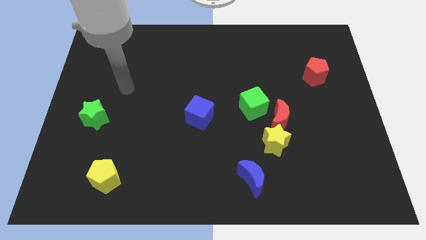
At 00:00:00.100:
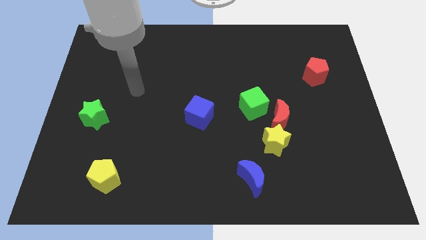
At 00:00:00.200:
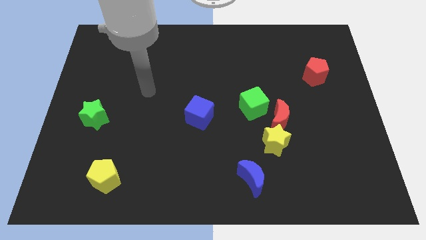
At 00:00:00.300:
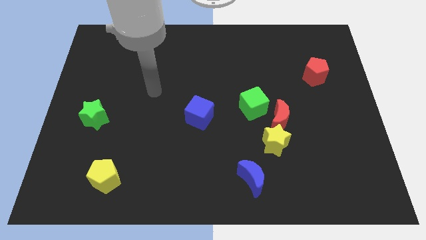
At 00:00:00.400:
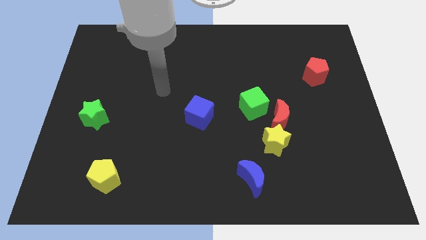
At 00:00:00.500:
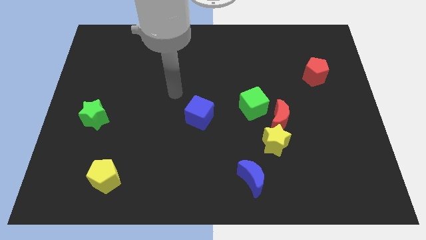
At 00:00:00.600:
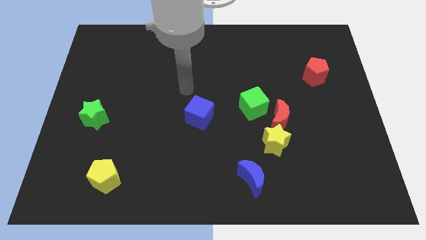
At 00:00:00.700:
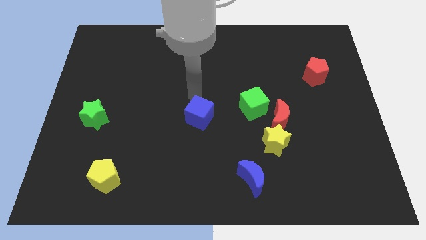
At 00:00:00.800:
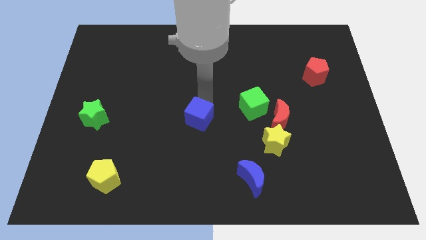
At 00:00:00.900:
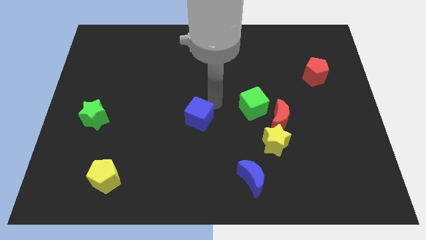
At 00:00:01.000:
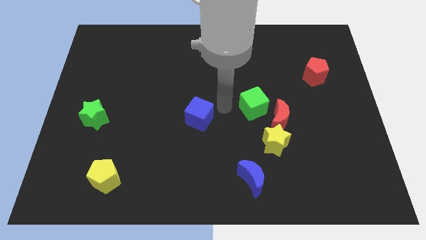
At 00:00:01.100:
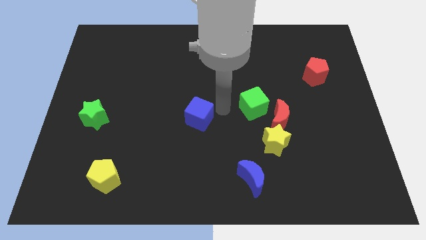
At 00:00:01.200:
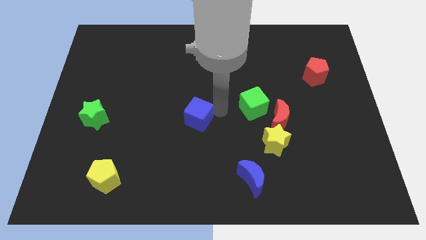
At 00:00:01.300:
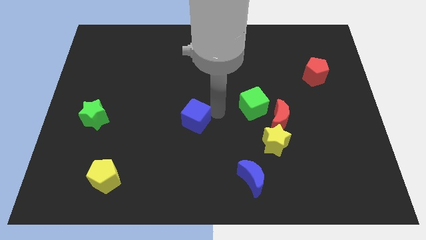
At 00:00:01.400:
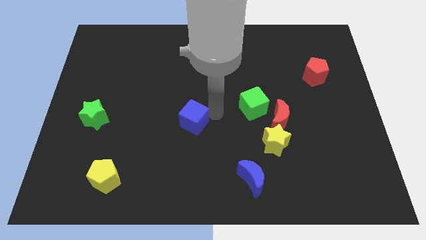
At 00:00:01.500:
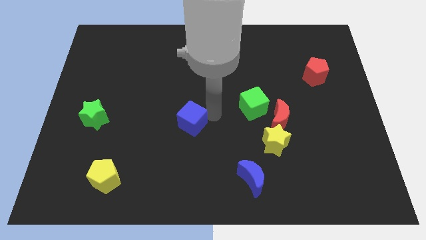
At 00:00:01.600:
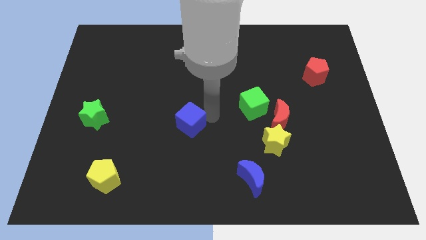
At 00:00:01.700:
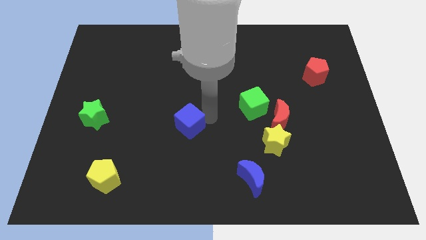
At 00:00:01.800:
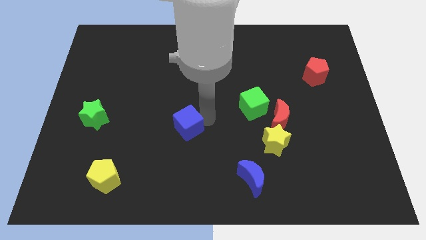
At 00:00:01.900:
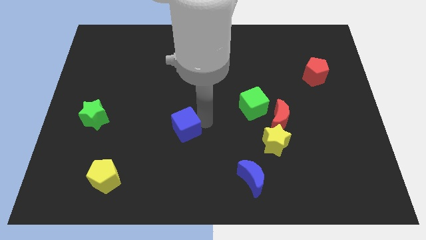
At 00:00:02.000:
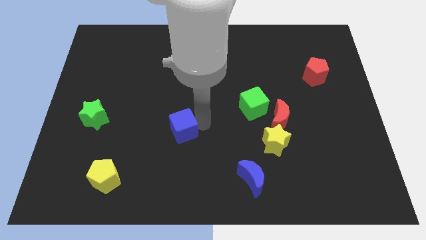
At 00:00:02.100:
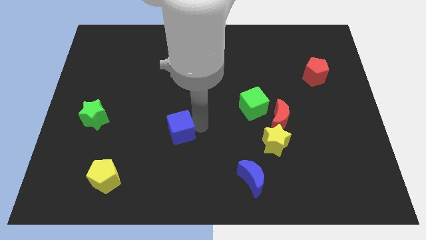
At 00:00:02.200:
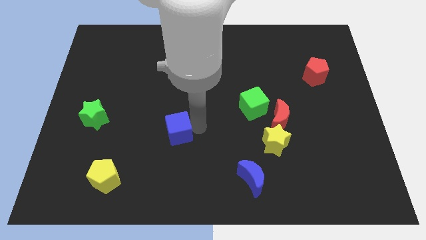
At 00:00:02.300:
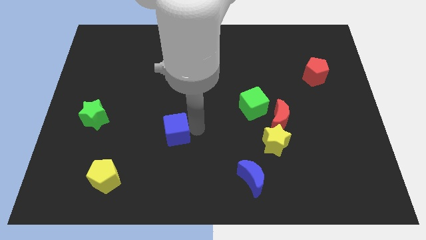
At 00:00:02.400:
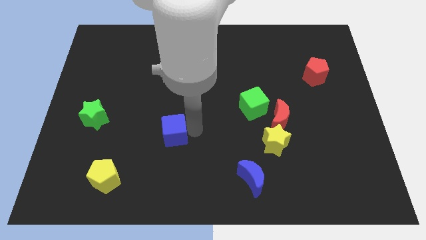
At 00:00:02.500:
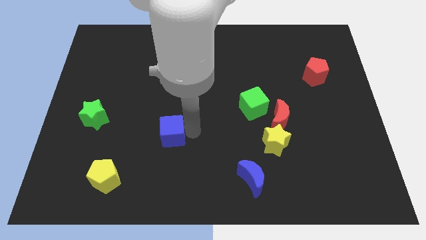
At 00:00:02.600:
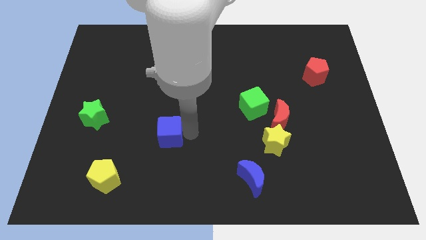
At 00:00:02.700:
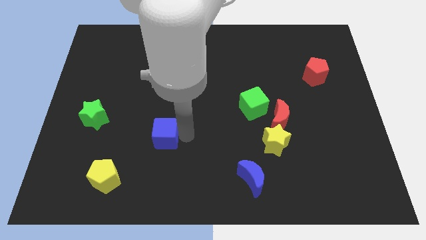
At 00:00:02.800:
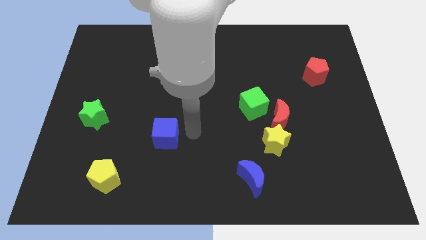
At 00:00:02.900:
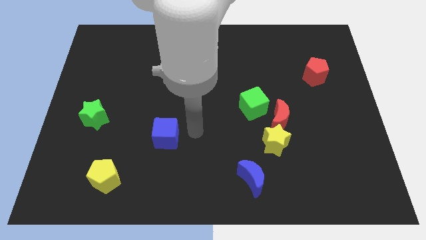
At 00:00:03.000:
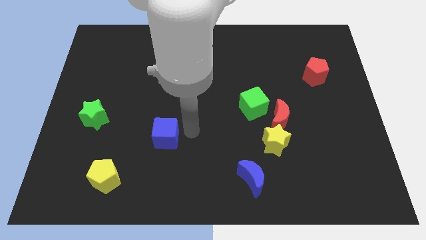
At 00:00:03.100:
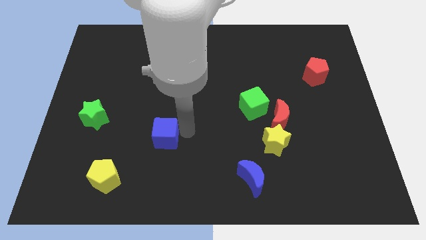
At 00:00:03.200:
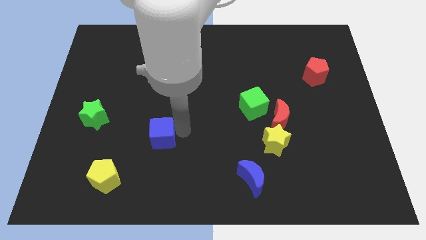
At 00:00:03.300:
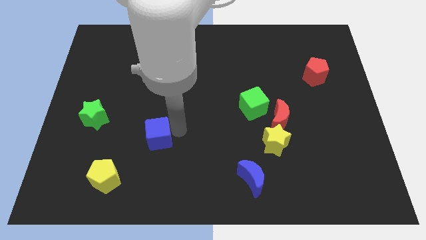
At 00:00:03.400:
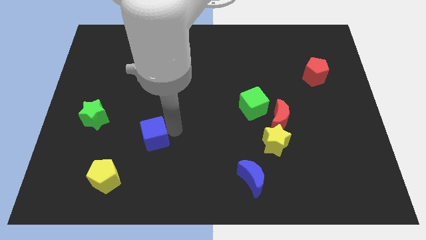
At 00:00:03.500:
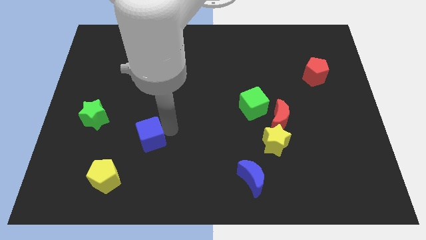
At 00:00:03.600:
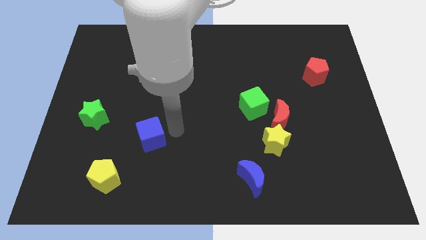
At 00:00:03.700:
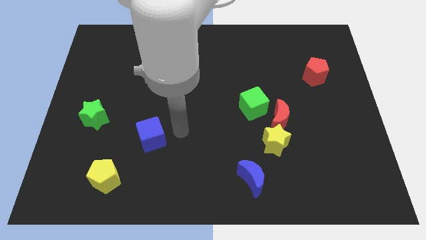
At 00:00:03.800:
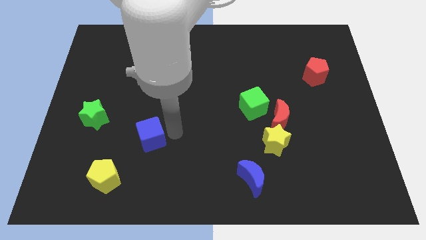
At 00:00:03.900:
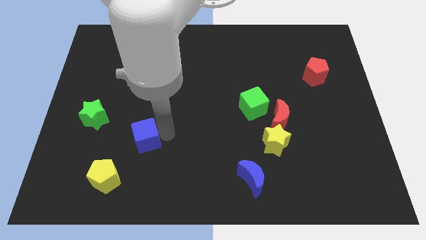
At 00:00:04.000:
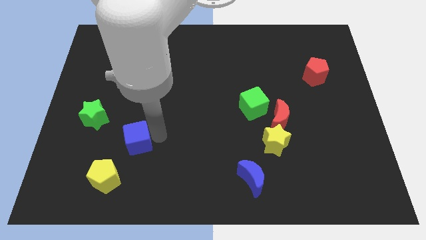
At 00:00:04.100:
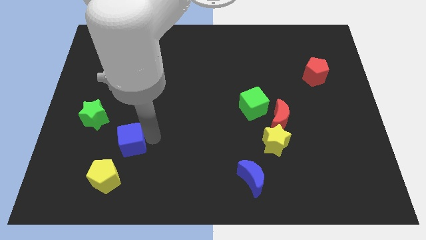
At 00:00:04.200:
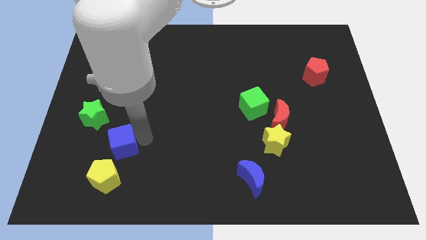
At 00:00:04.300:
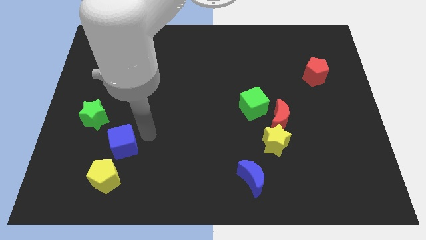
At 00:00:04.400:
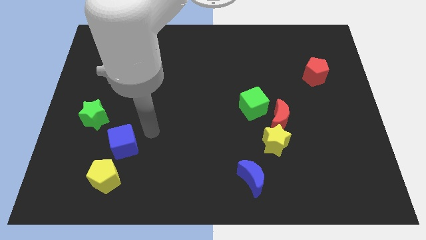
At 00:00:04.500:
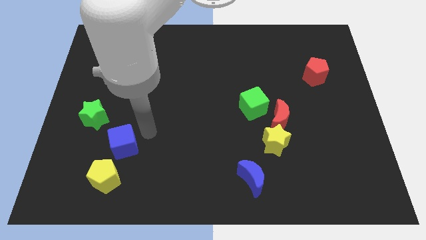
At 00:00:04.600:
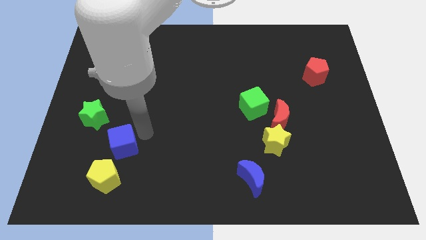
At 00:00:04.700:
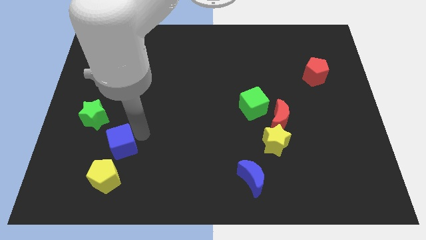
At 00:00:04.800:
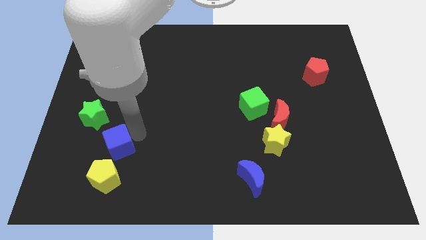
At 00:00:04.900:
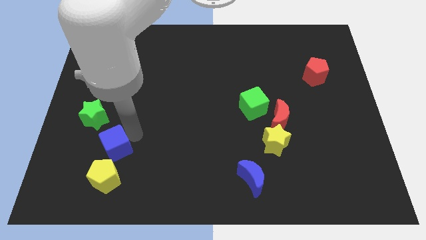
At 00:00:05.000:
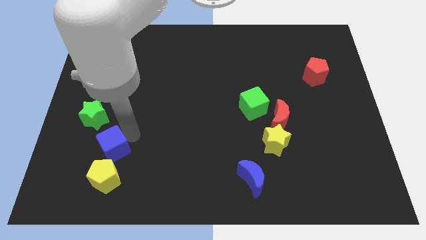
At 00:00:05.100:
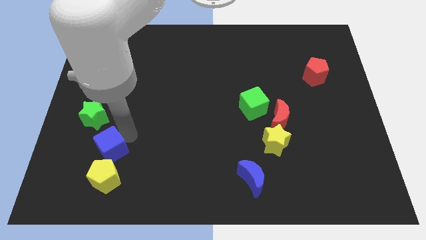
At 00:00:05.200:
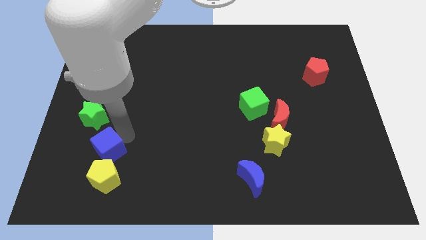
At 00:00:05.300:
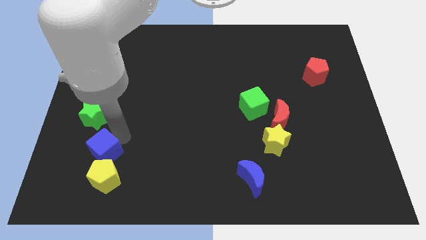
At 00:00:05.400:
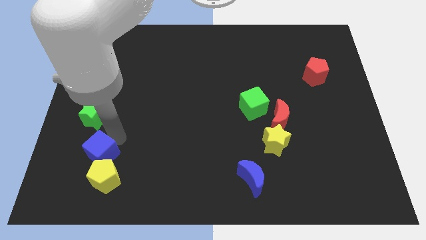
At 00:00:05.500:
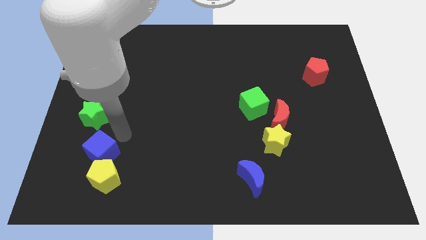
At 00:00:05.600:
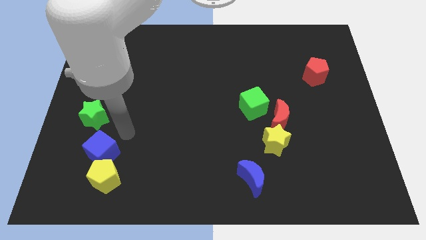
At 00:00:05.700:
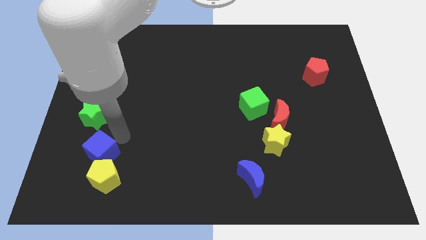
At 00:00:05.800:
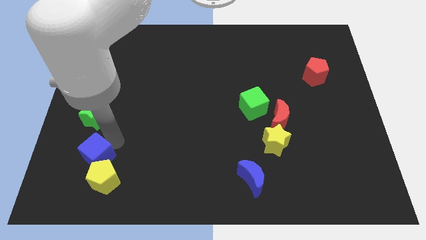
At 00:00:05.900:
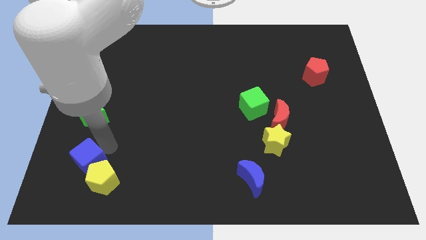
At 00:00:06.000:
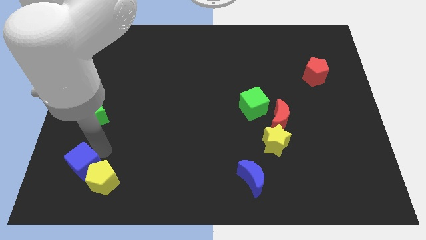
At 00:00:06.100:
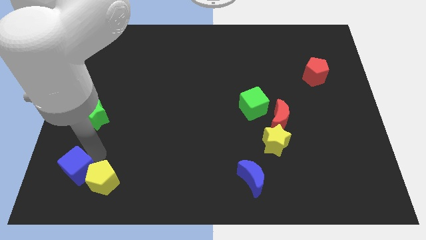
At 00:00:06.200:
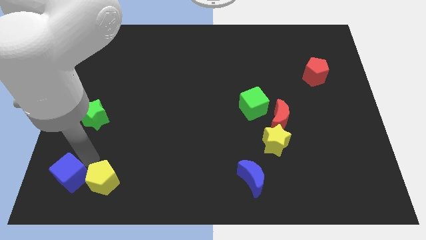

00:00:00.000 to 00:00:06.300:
put the blue cube to the bottom left of the board

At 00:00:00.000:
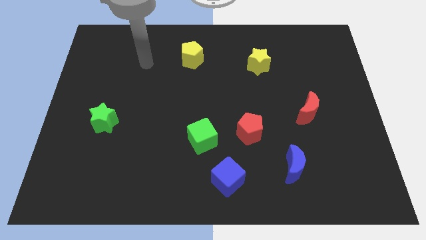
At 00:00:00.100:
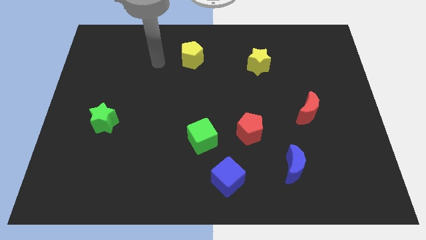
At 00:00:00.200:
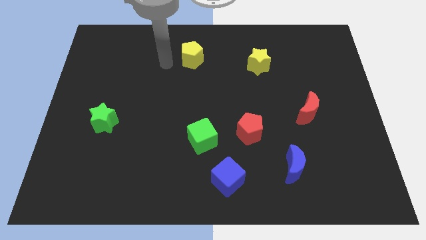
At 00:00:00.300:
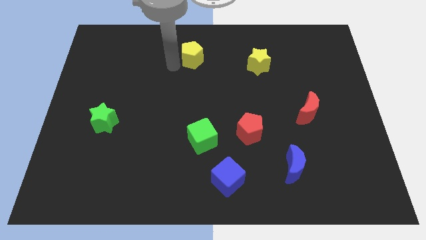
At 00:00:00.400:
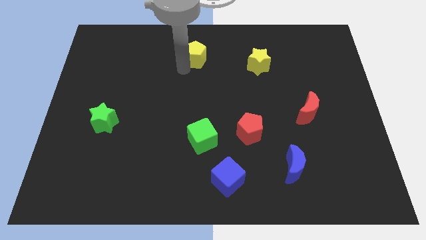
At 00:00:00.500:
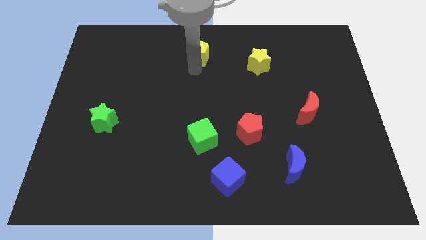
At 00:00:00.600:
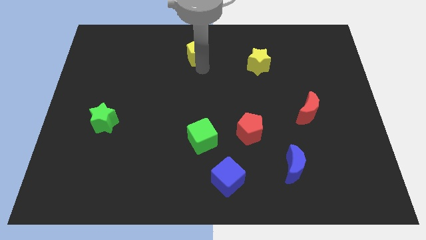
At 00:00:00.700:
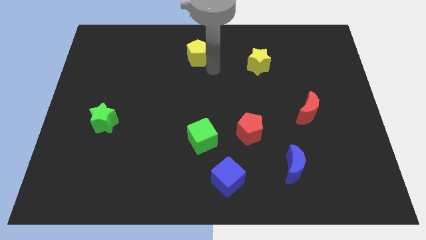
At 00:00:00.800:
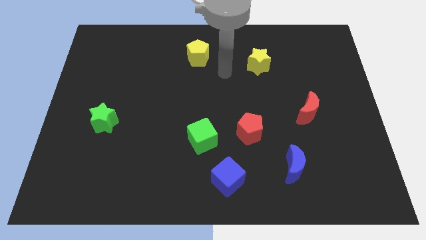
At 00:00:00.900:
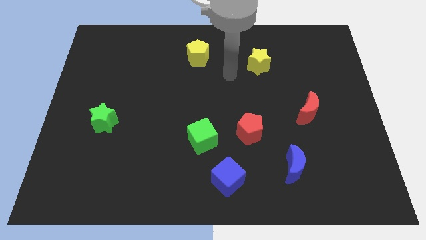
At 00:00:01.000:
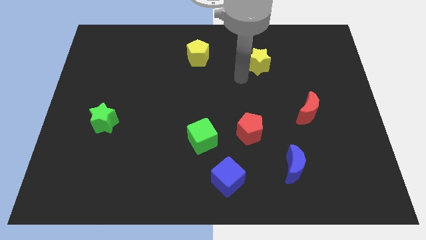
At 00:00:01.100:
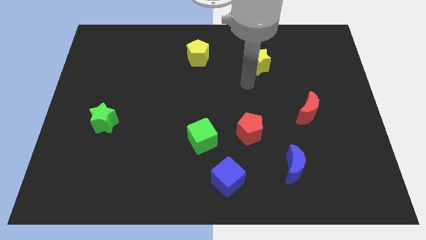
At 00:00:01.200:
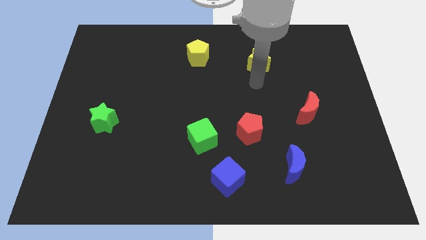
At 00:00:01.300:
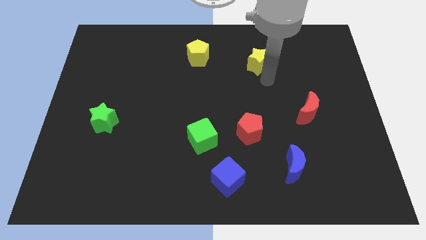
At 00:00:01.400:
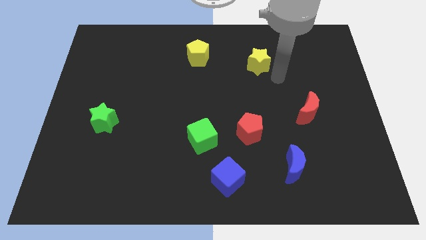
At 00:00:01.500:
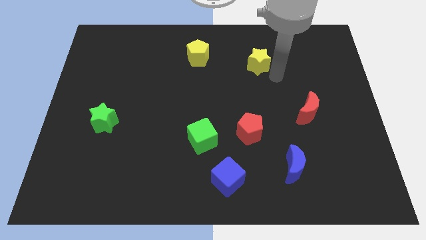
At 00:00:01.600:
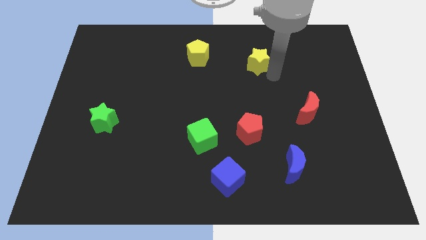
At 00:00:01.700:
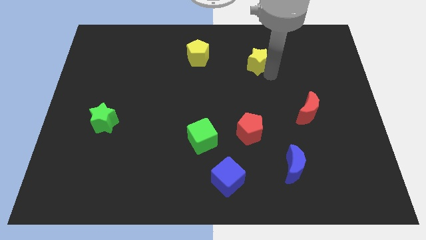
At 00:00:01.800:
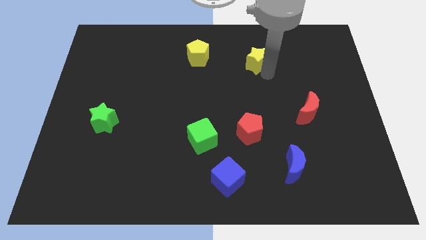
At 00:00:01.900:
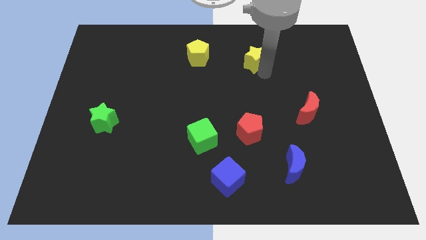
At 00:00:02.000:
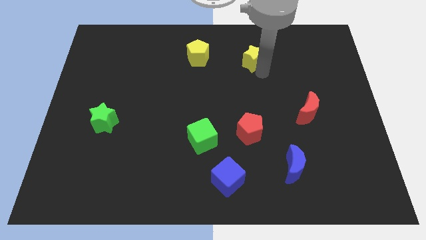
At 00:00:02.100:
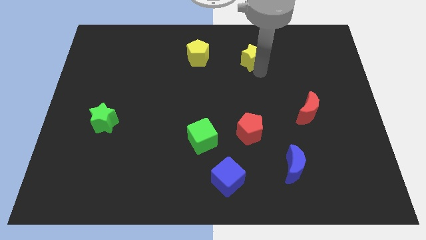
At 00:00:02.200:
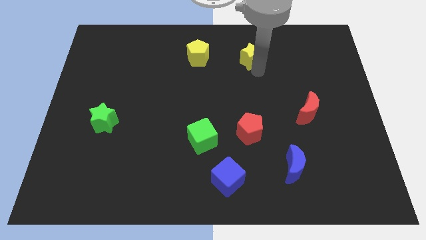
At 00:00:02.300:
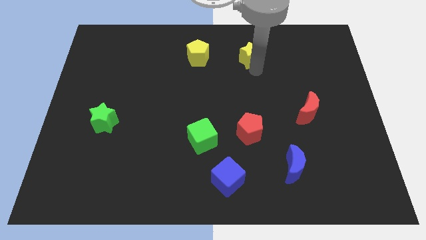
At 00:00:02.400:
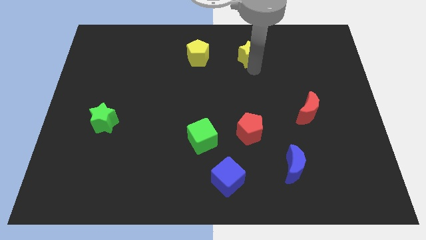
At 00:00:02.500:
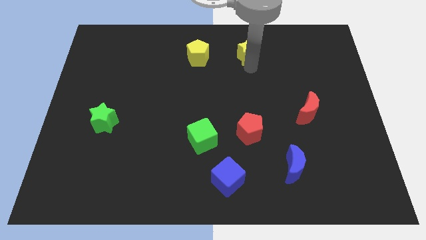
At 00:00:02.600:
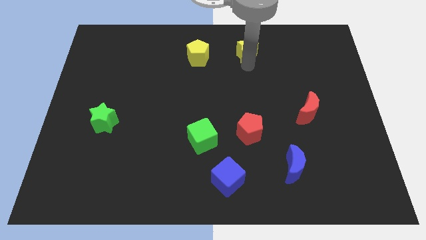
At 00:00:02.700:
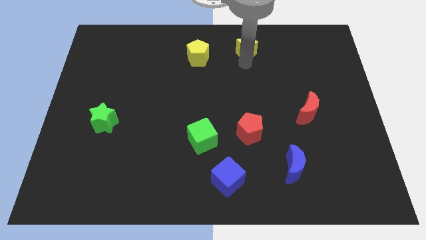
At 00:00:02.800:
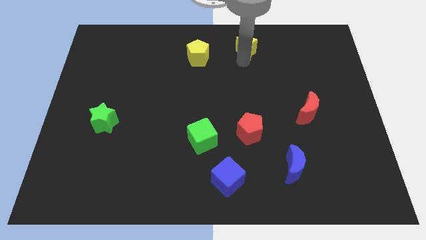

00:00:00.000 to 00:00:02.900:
move the yellow star to the towards your base
